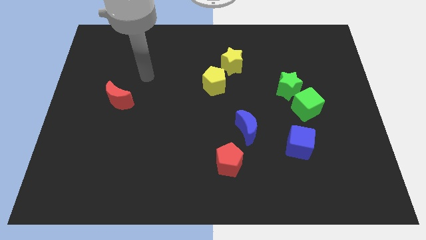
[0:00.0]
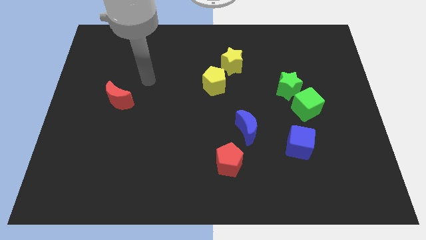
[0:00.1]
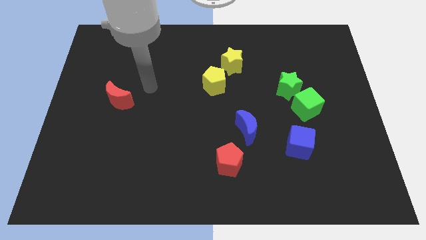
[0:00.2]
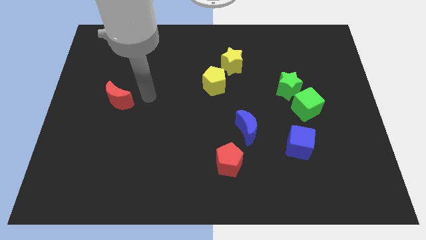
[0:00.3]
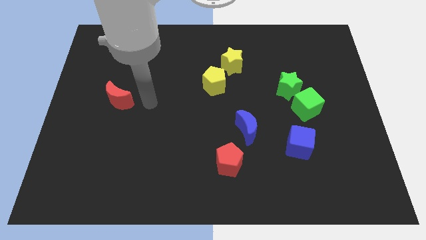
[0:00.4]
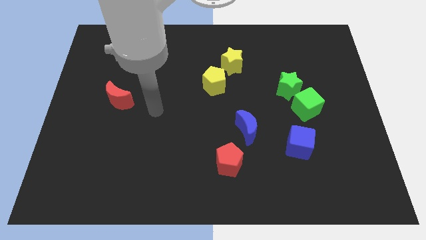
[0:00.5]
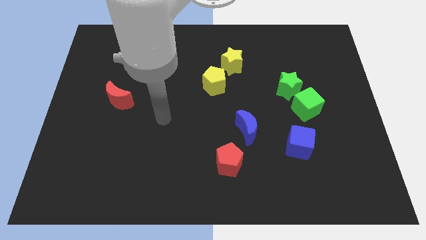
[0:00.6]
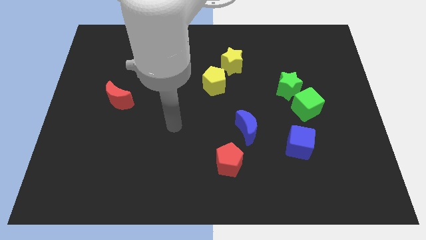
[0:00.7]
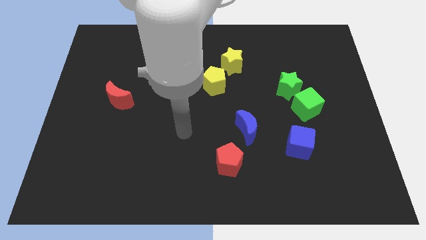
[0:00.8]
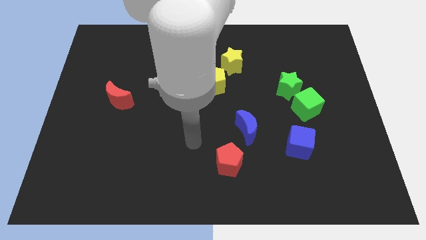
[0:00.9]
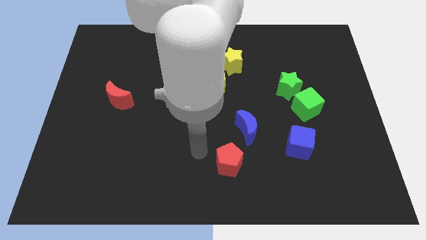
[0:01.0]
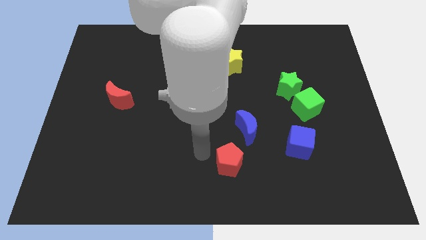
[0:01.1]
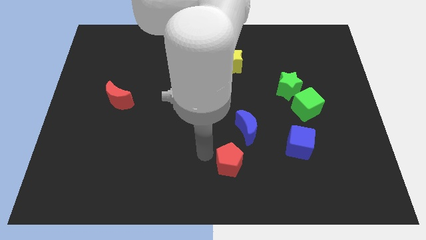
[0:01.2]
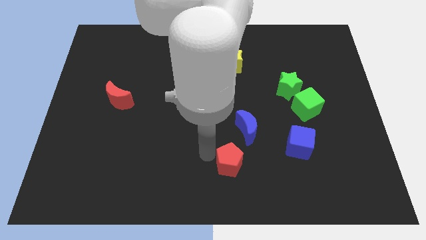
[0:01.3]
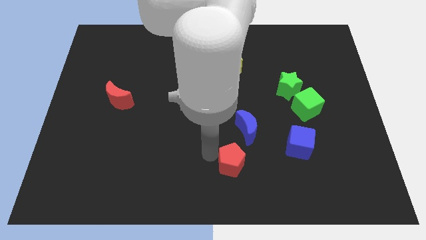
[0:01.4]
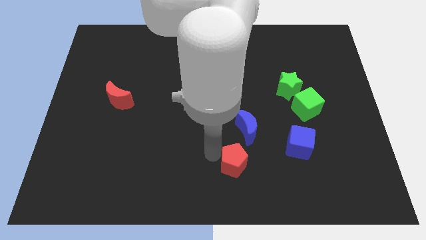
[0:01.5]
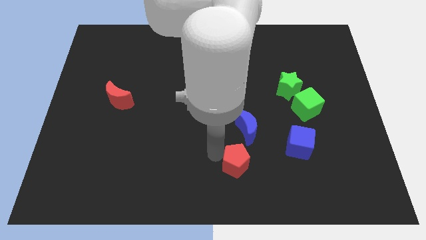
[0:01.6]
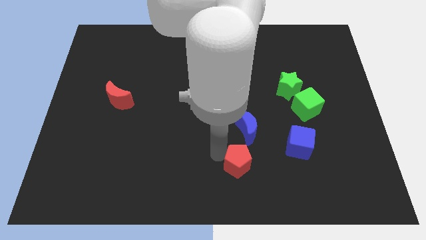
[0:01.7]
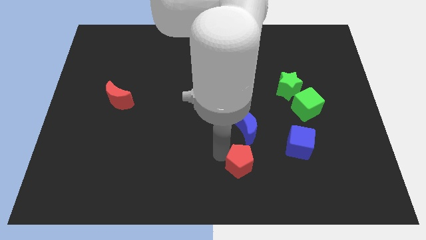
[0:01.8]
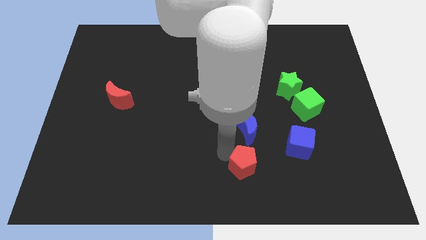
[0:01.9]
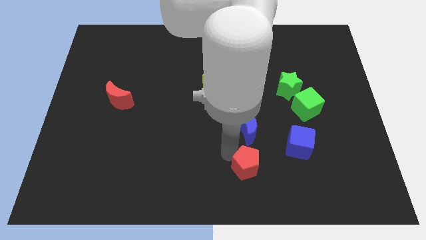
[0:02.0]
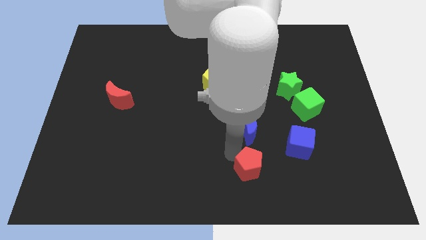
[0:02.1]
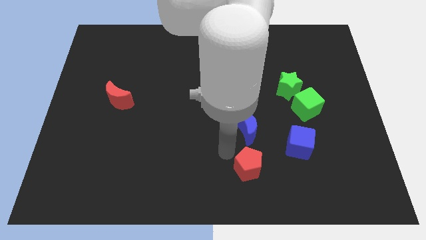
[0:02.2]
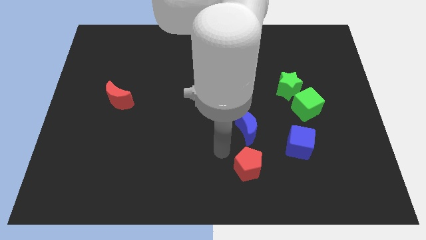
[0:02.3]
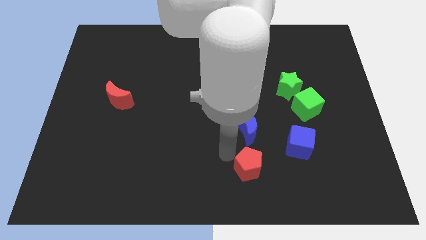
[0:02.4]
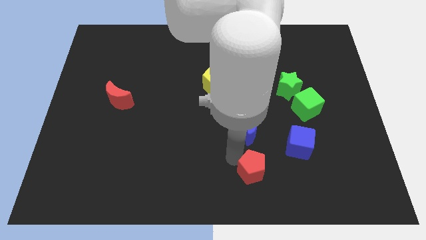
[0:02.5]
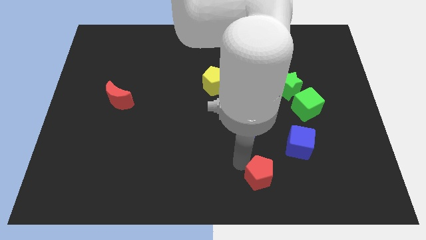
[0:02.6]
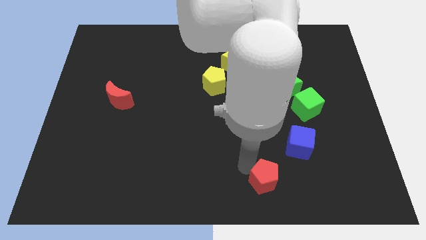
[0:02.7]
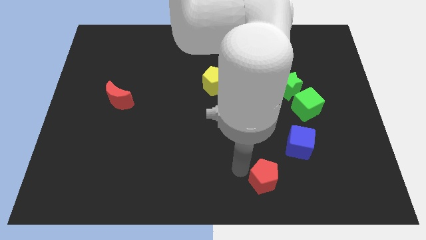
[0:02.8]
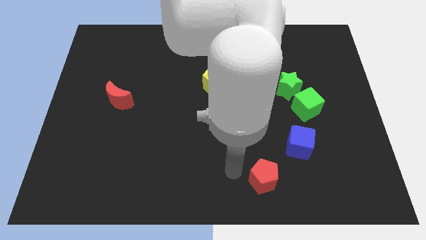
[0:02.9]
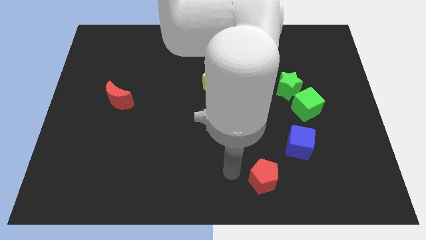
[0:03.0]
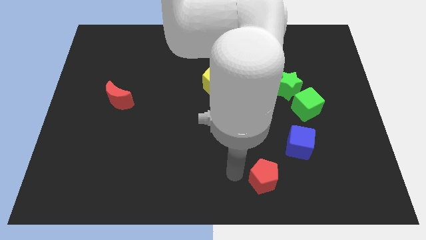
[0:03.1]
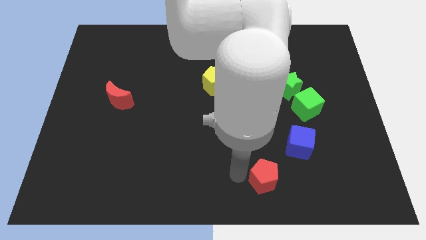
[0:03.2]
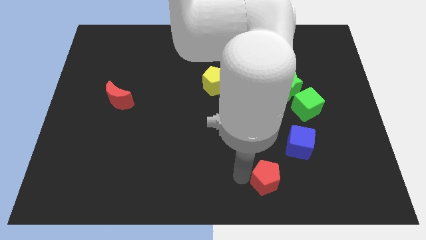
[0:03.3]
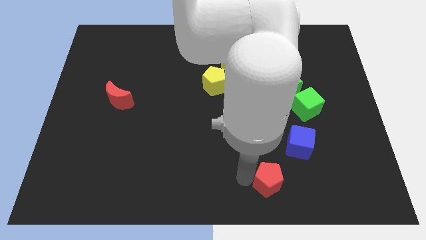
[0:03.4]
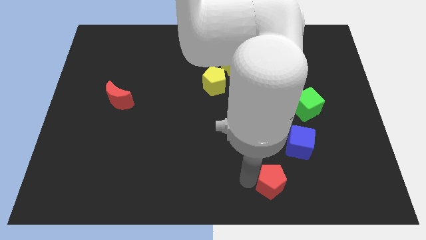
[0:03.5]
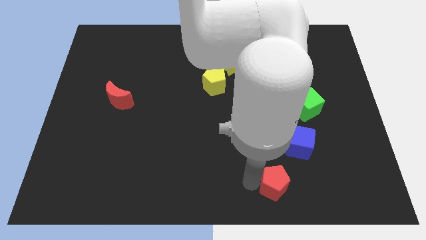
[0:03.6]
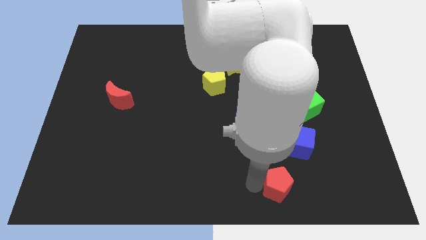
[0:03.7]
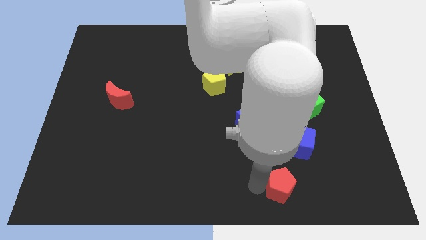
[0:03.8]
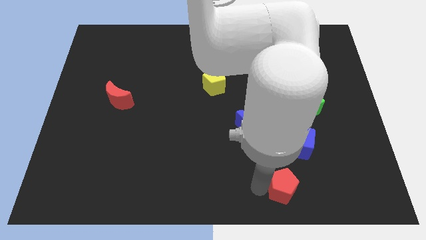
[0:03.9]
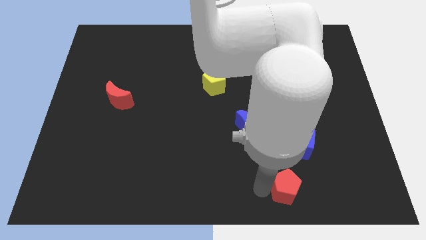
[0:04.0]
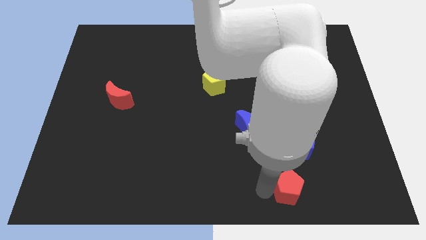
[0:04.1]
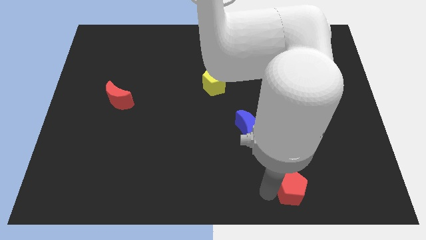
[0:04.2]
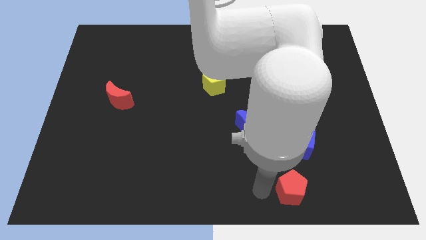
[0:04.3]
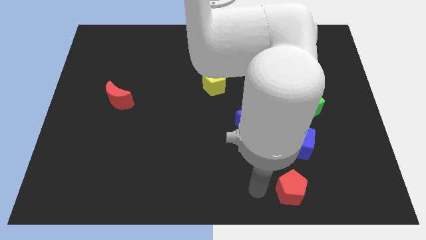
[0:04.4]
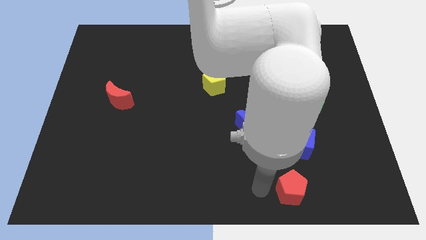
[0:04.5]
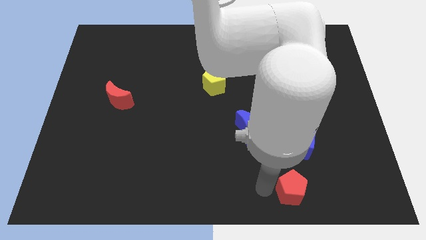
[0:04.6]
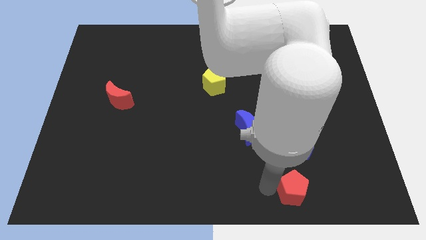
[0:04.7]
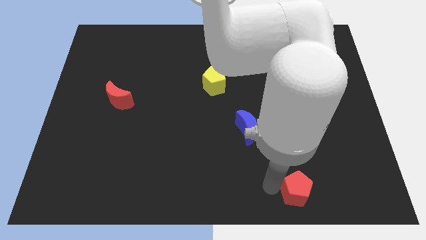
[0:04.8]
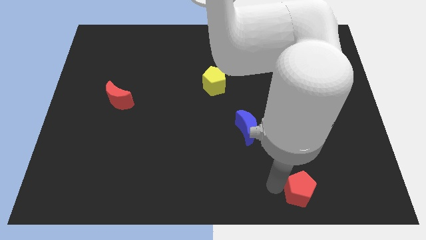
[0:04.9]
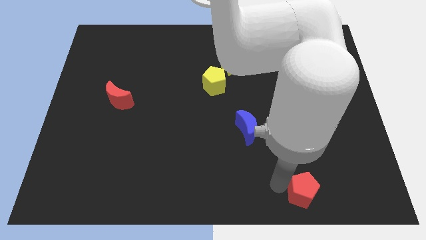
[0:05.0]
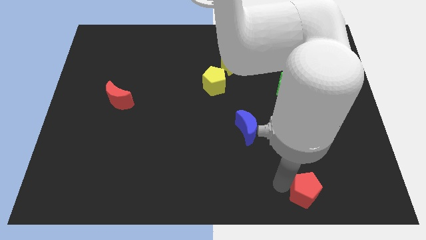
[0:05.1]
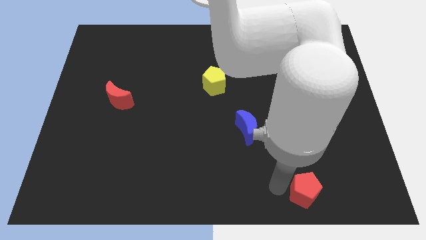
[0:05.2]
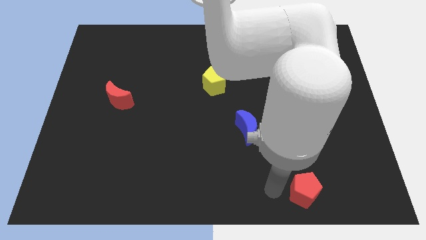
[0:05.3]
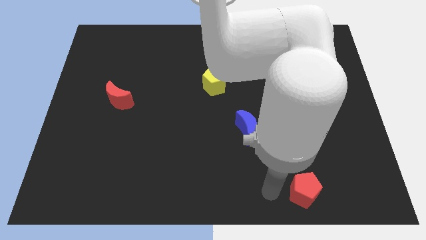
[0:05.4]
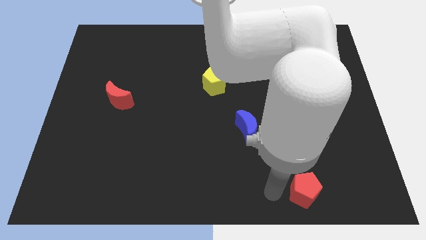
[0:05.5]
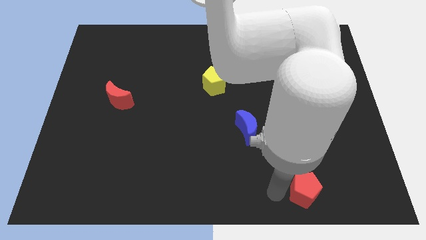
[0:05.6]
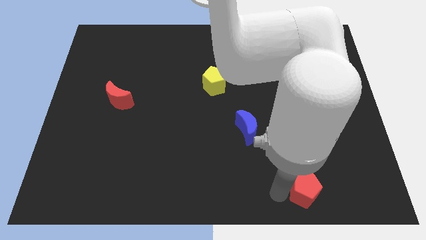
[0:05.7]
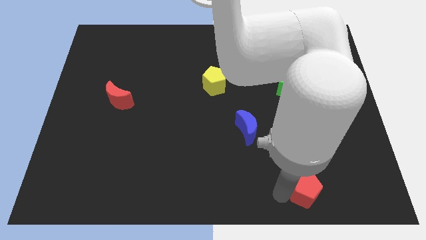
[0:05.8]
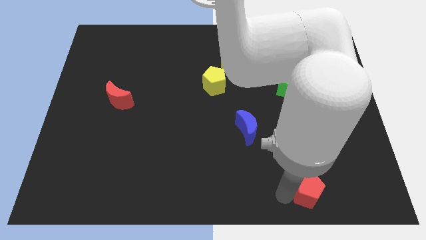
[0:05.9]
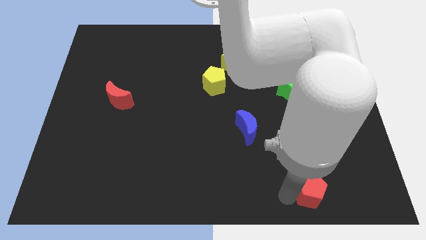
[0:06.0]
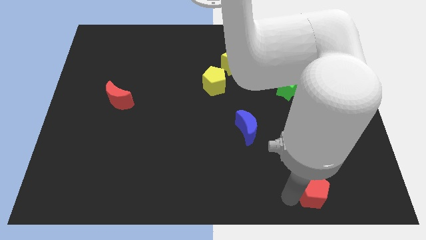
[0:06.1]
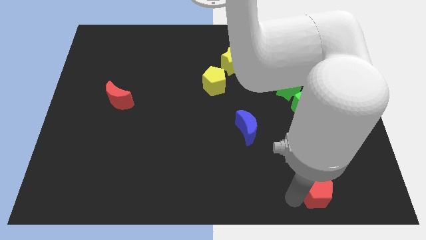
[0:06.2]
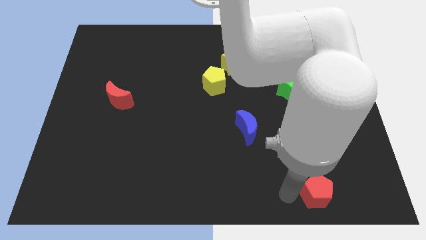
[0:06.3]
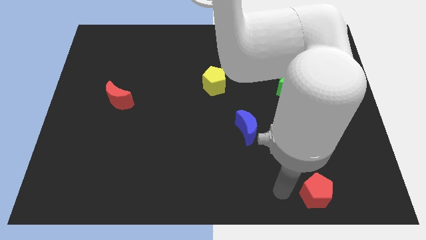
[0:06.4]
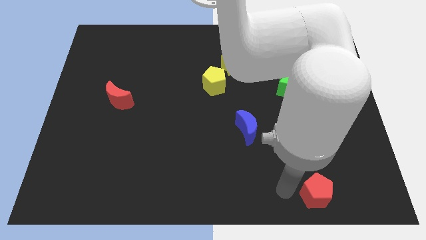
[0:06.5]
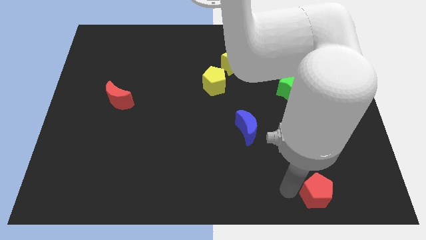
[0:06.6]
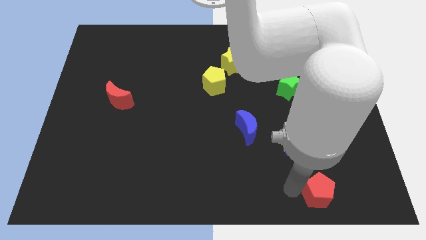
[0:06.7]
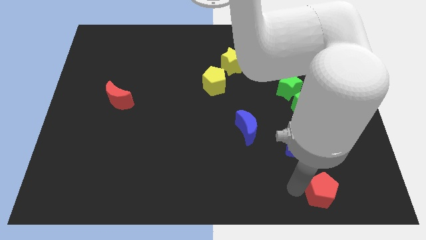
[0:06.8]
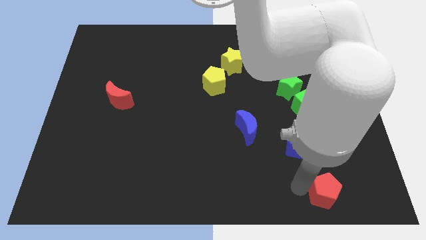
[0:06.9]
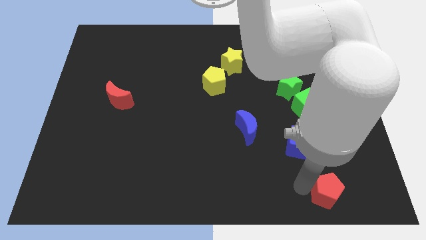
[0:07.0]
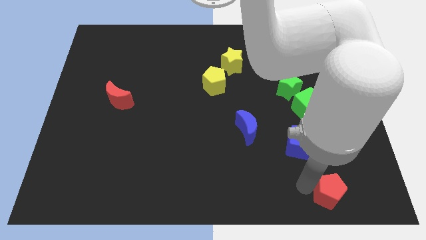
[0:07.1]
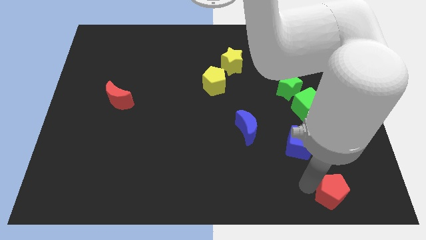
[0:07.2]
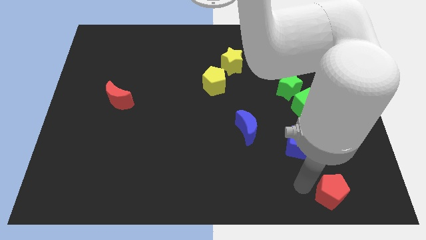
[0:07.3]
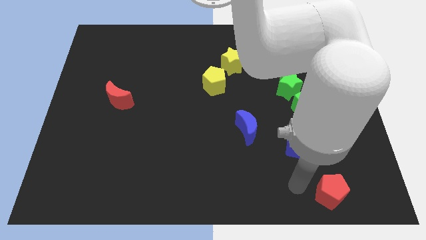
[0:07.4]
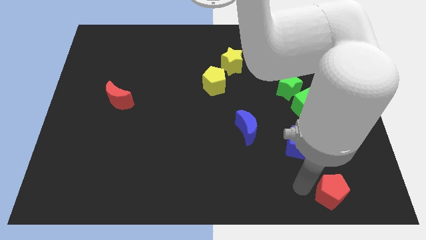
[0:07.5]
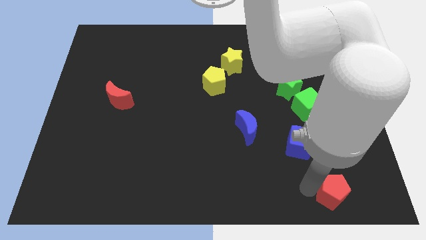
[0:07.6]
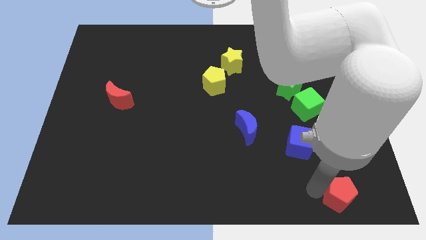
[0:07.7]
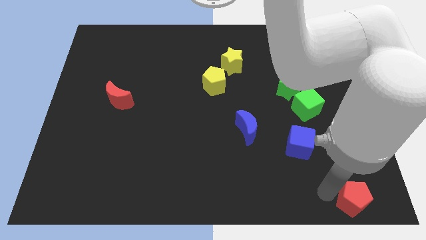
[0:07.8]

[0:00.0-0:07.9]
push the red pentagon to the lower right corner
